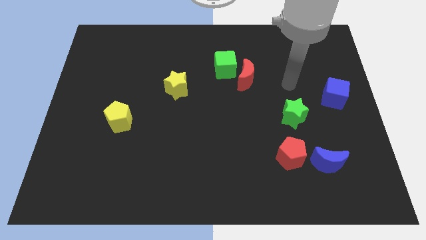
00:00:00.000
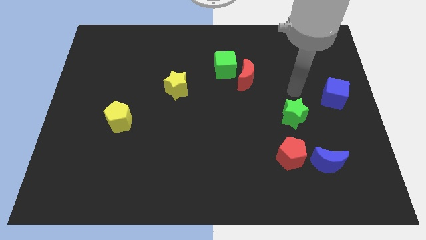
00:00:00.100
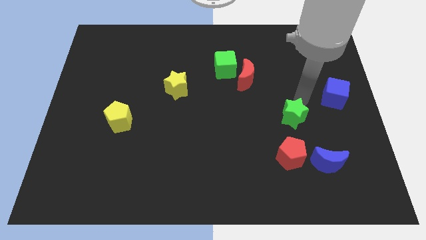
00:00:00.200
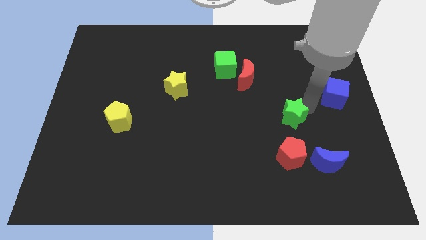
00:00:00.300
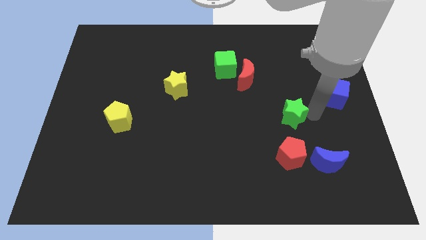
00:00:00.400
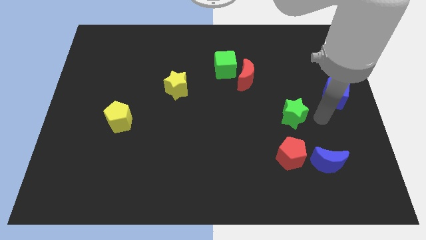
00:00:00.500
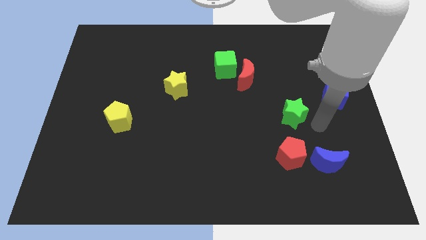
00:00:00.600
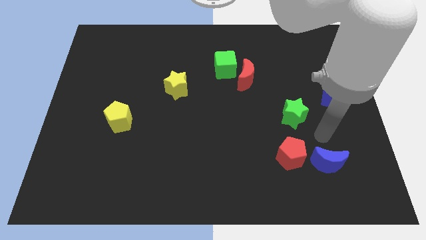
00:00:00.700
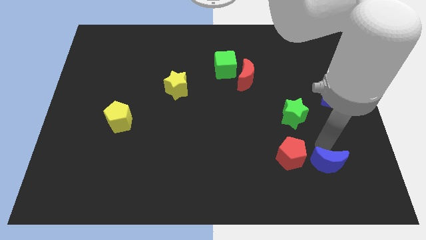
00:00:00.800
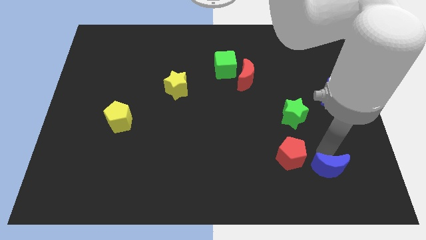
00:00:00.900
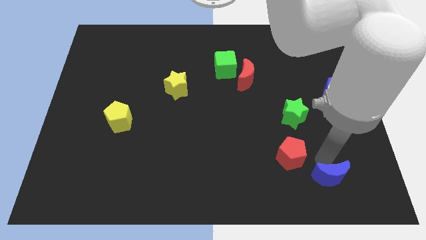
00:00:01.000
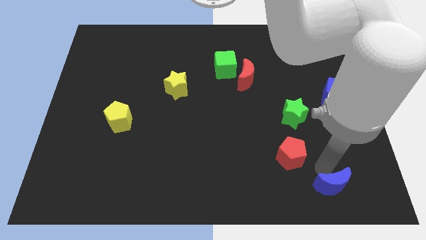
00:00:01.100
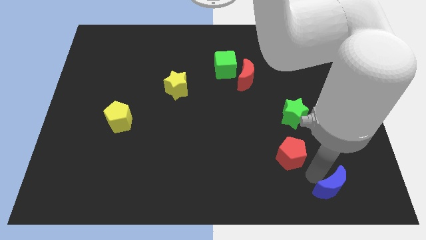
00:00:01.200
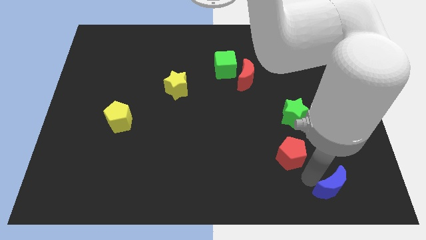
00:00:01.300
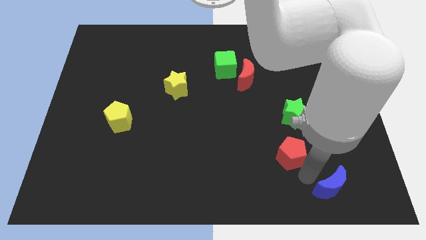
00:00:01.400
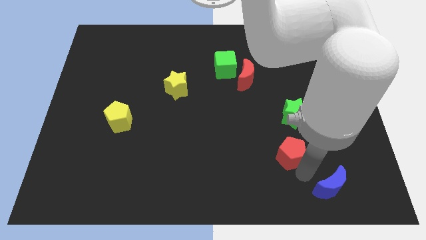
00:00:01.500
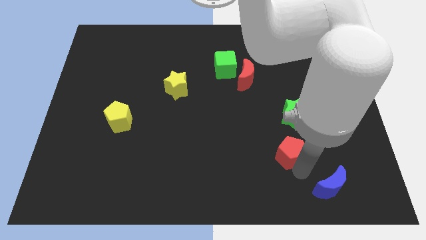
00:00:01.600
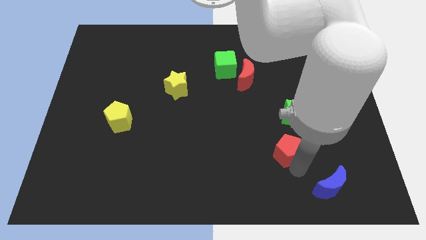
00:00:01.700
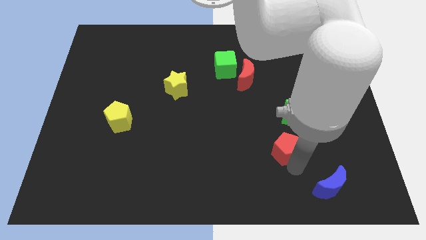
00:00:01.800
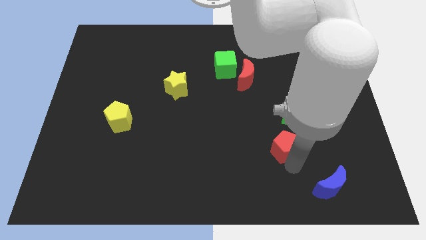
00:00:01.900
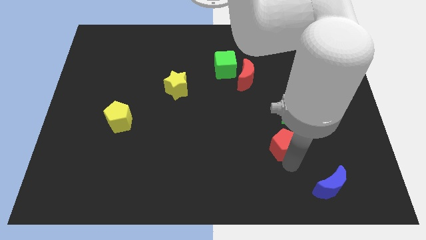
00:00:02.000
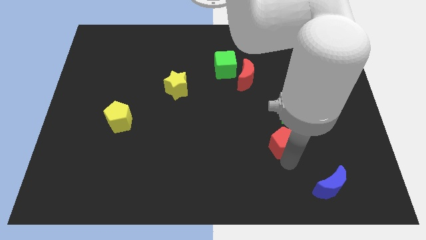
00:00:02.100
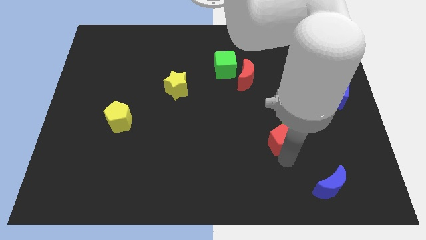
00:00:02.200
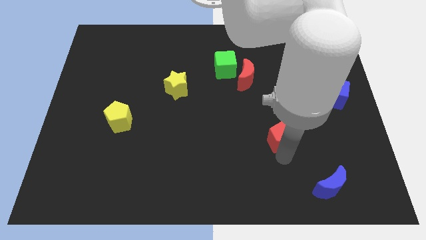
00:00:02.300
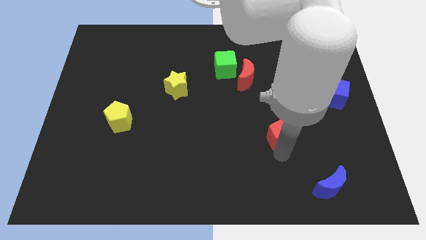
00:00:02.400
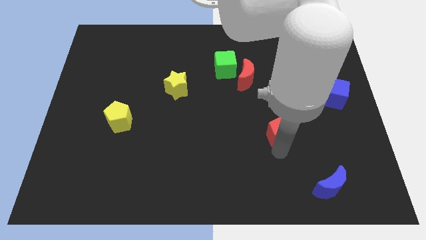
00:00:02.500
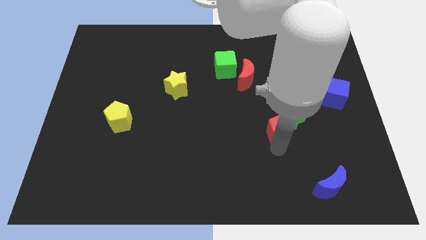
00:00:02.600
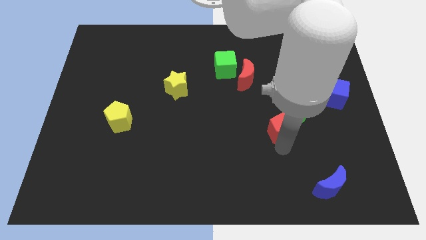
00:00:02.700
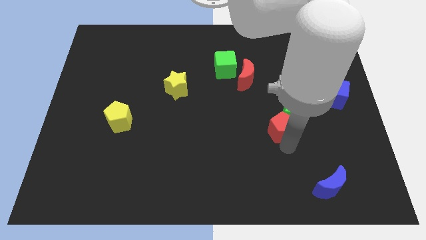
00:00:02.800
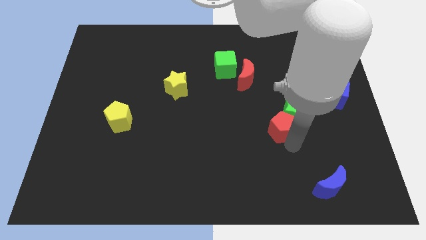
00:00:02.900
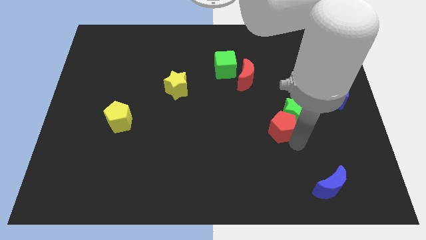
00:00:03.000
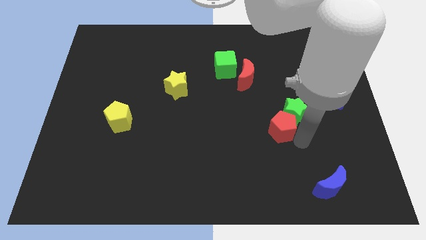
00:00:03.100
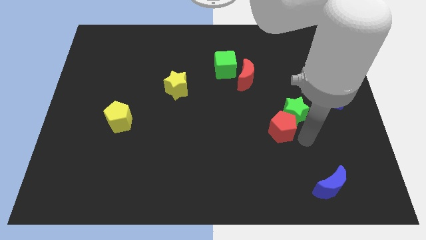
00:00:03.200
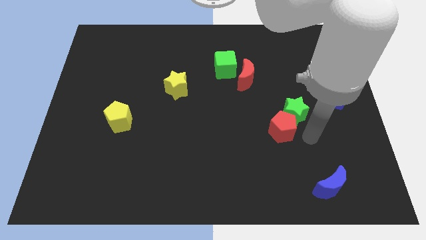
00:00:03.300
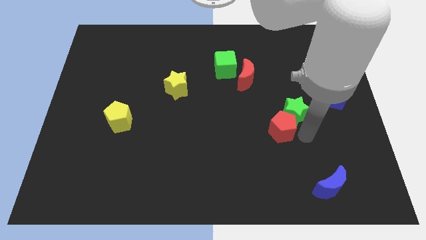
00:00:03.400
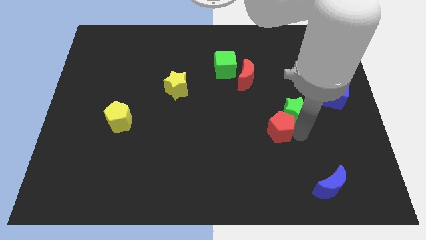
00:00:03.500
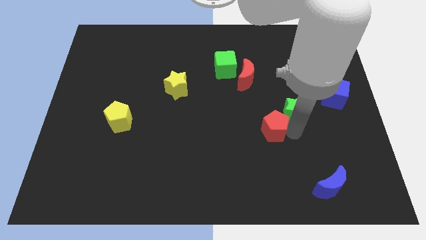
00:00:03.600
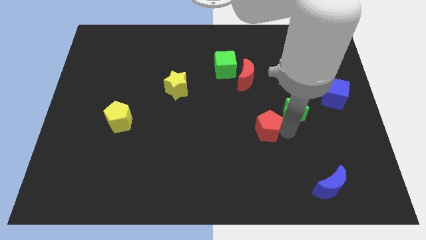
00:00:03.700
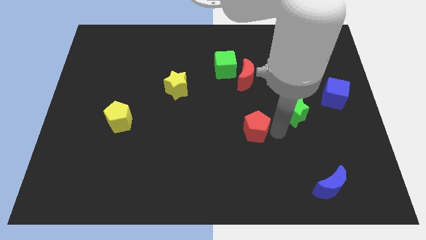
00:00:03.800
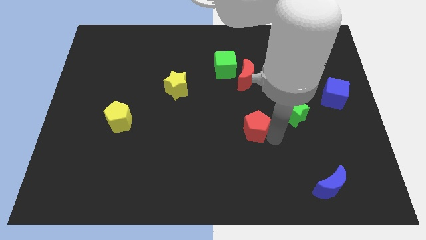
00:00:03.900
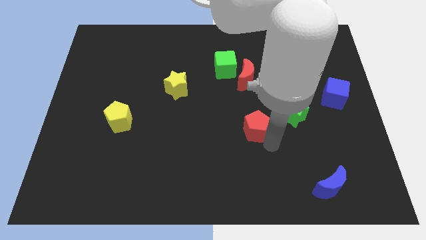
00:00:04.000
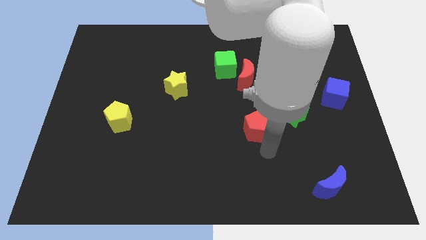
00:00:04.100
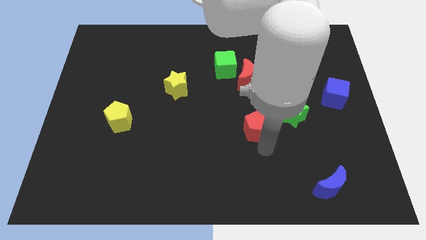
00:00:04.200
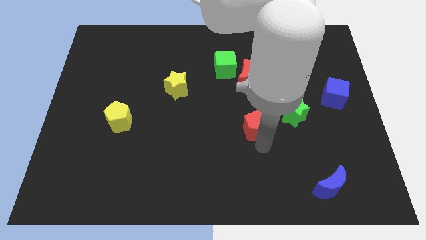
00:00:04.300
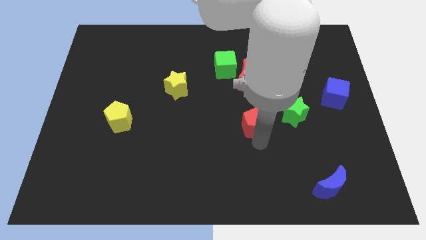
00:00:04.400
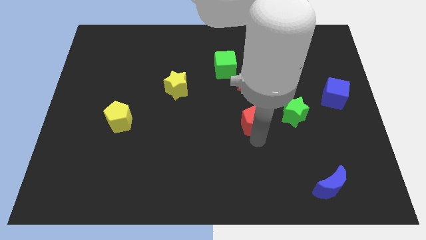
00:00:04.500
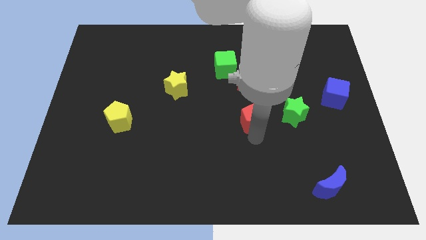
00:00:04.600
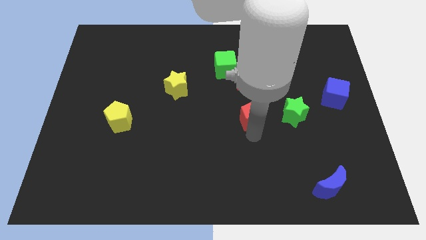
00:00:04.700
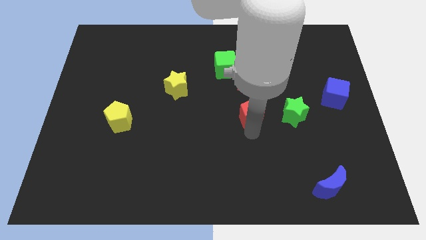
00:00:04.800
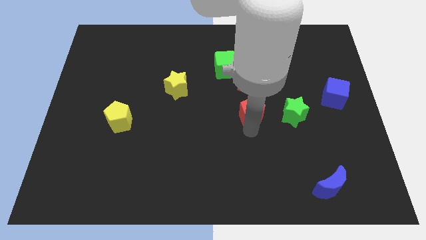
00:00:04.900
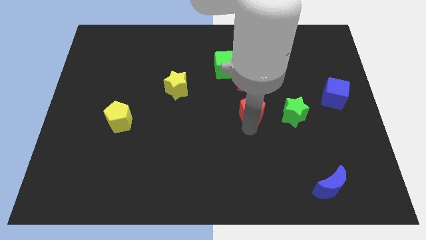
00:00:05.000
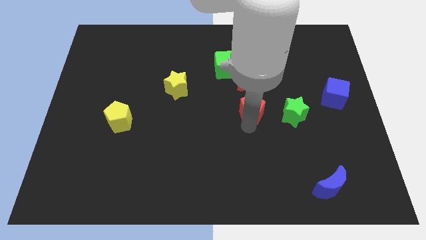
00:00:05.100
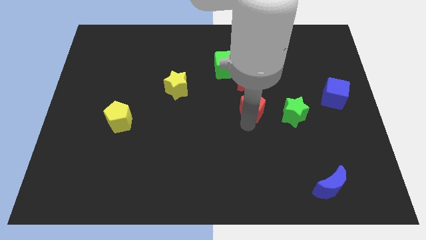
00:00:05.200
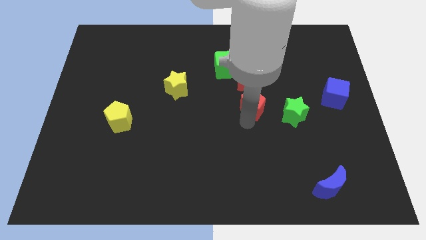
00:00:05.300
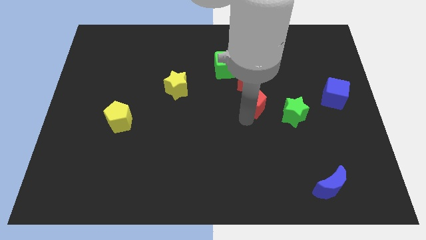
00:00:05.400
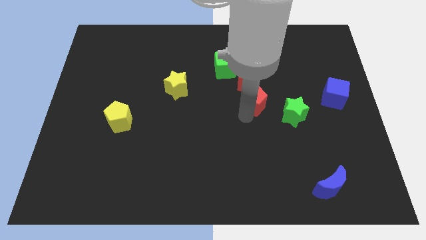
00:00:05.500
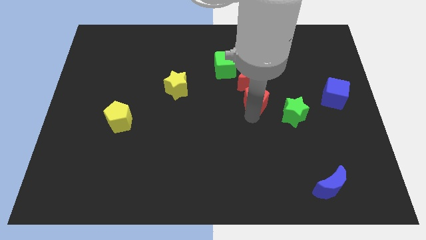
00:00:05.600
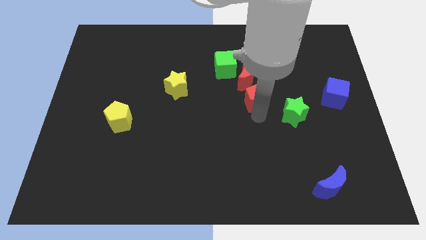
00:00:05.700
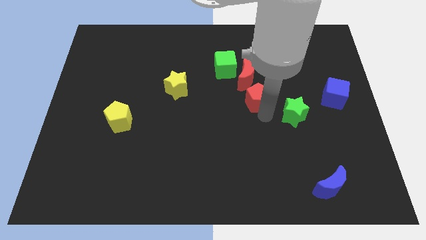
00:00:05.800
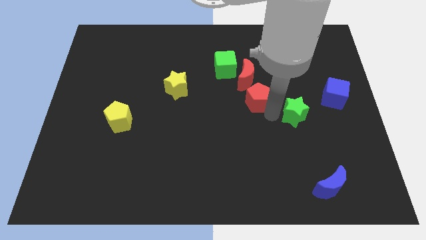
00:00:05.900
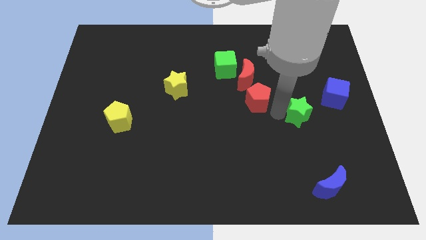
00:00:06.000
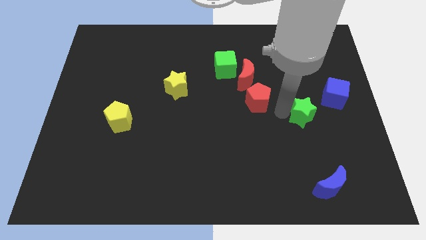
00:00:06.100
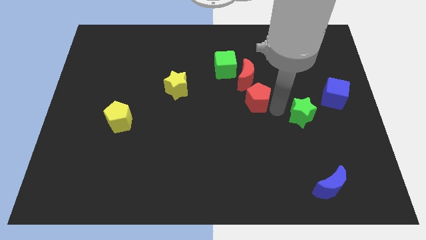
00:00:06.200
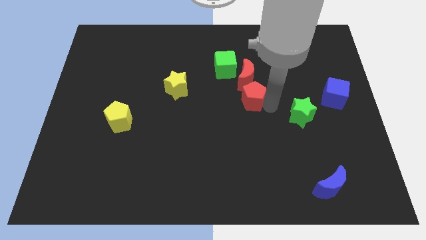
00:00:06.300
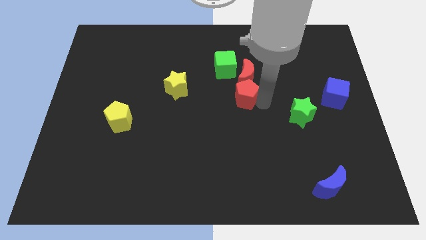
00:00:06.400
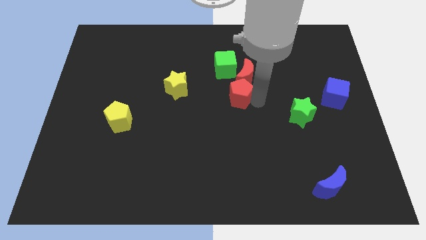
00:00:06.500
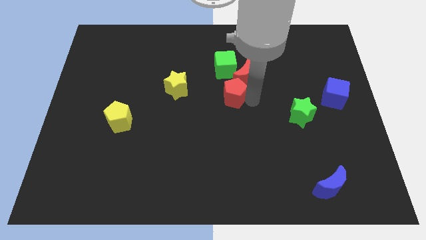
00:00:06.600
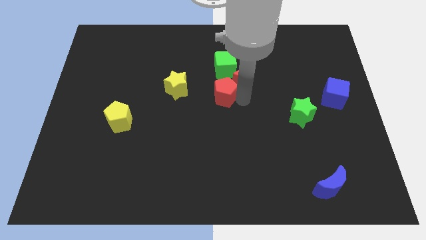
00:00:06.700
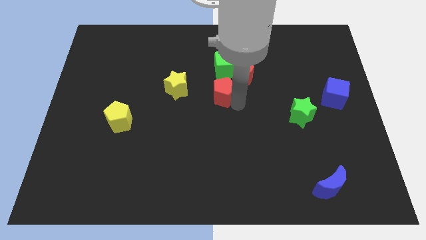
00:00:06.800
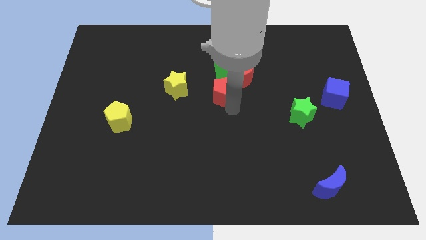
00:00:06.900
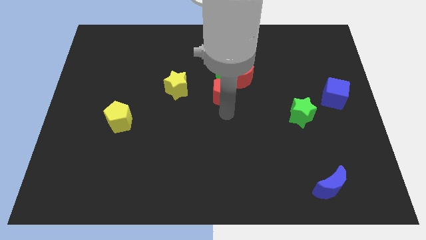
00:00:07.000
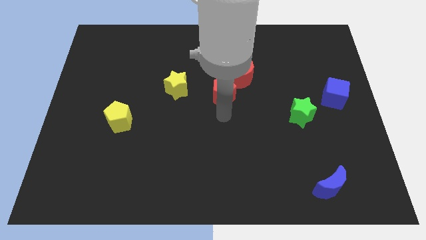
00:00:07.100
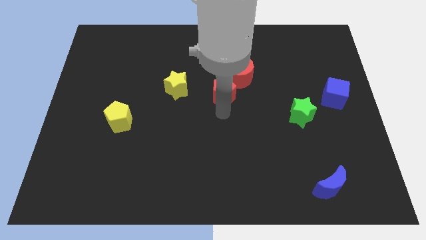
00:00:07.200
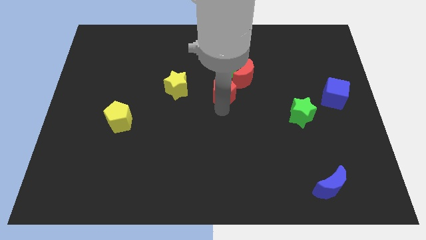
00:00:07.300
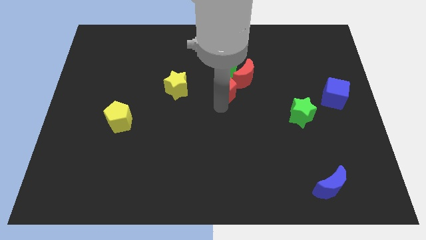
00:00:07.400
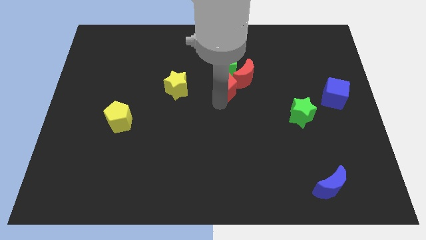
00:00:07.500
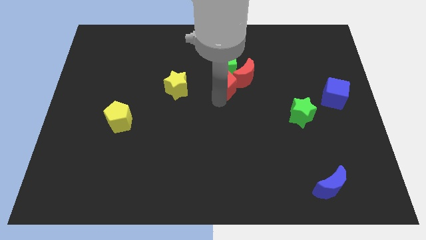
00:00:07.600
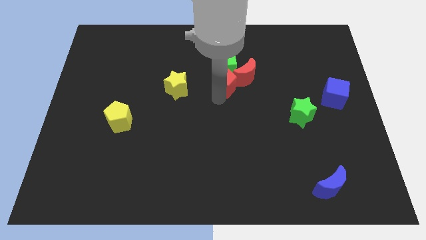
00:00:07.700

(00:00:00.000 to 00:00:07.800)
slide the red pentagon next to the green cube
